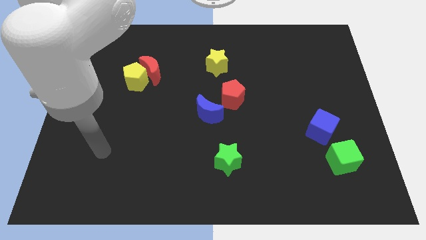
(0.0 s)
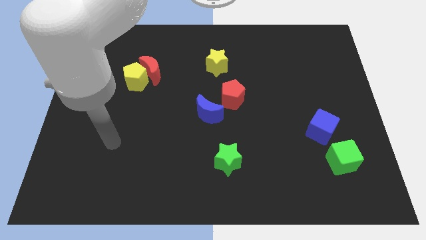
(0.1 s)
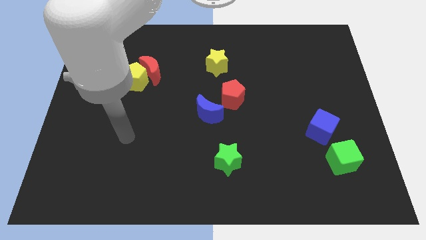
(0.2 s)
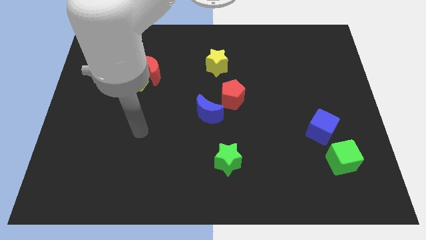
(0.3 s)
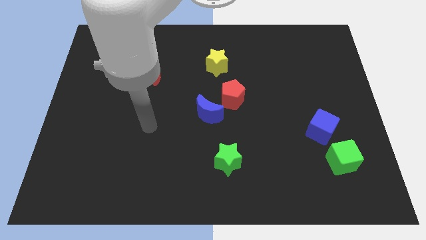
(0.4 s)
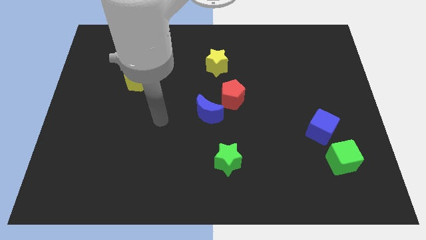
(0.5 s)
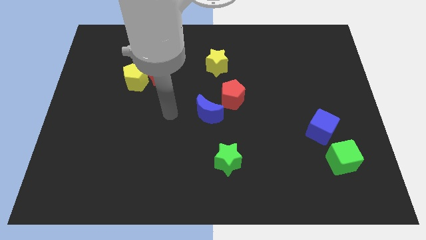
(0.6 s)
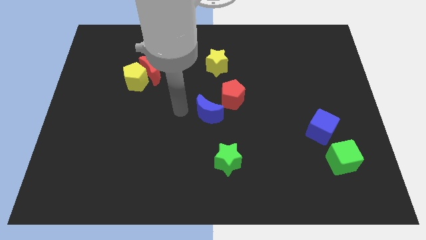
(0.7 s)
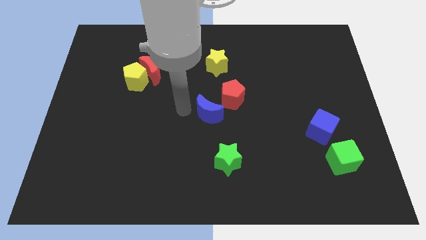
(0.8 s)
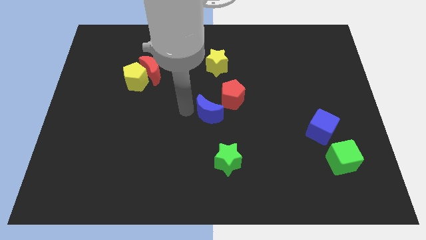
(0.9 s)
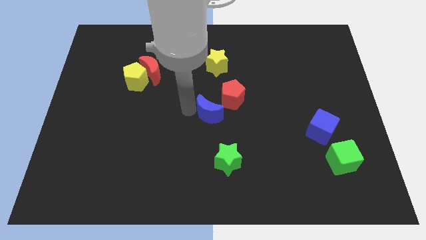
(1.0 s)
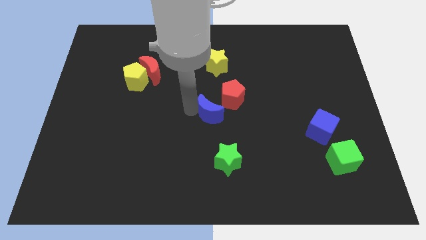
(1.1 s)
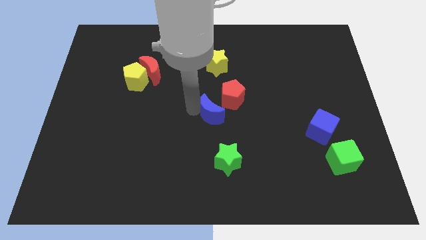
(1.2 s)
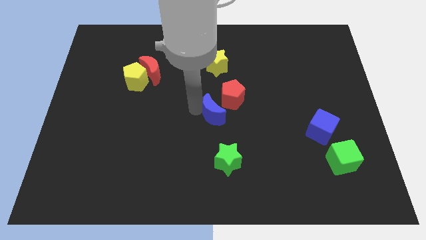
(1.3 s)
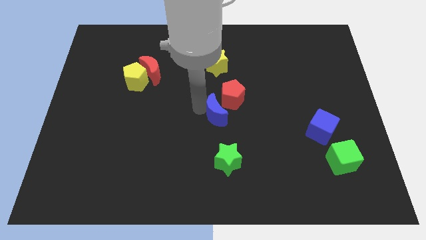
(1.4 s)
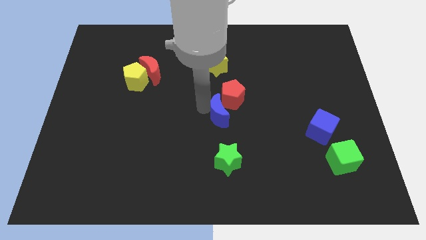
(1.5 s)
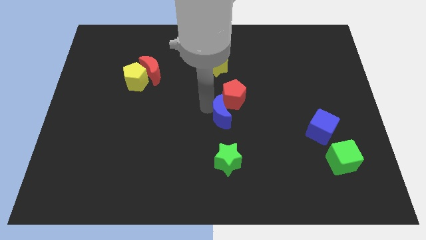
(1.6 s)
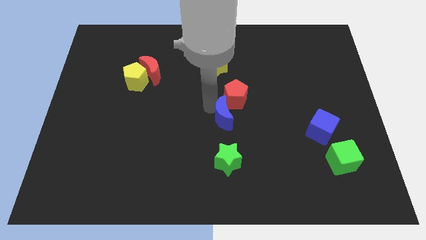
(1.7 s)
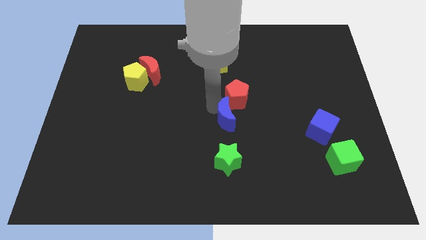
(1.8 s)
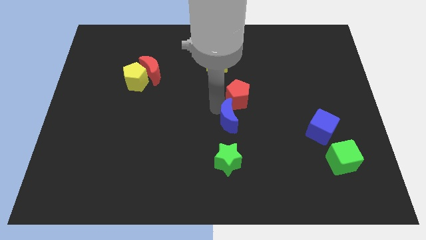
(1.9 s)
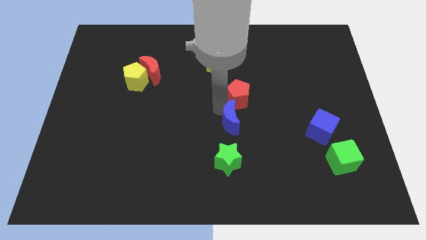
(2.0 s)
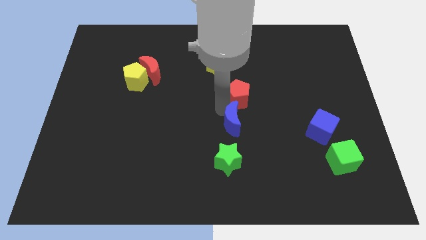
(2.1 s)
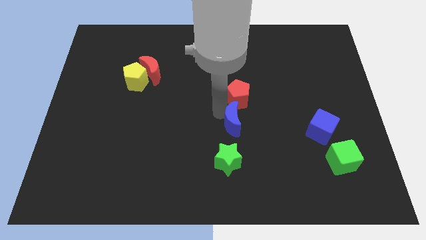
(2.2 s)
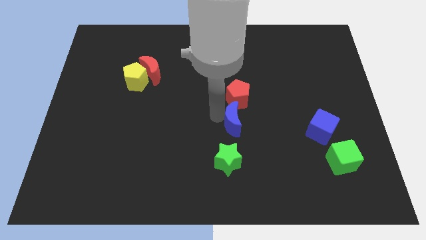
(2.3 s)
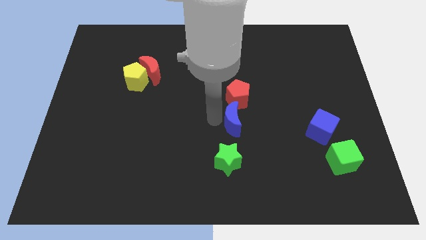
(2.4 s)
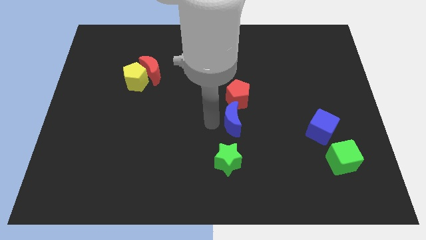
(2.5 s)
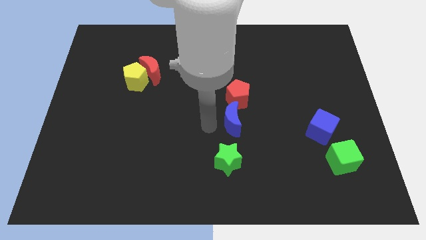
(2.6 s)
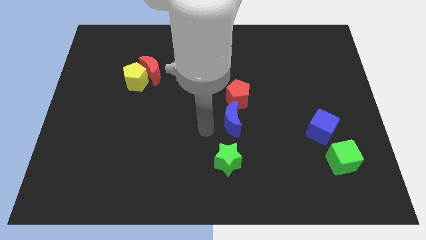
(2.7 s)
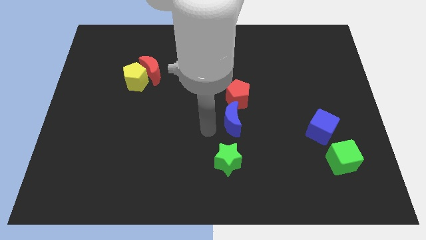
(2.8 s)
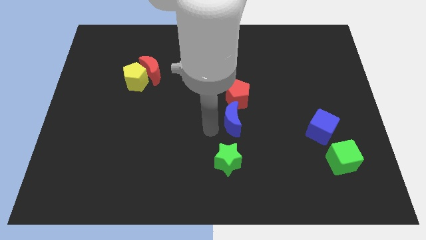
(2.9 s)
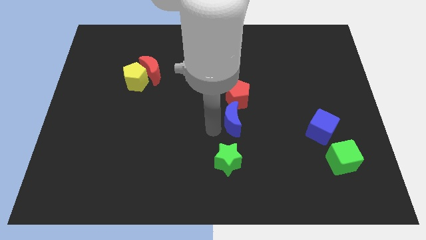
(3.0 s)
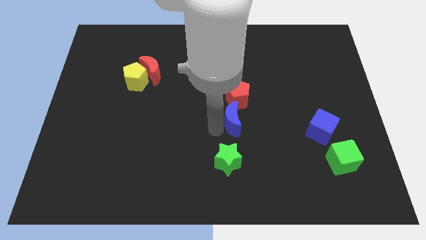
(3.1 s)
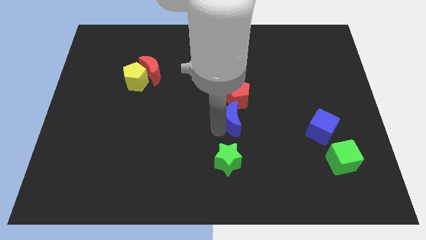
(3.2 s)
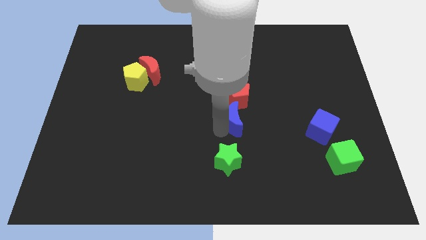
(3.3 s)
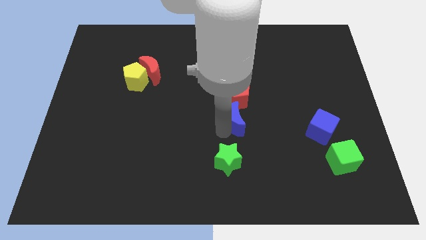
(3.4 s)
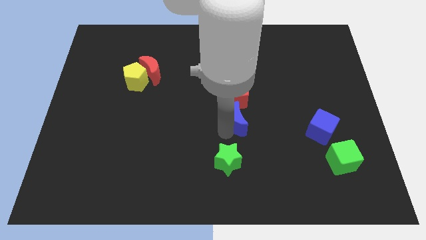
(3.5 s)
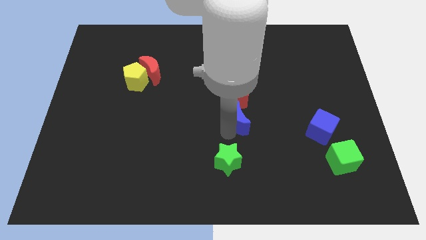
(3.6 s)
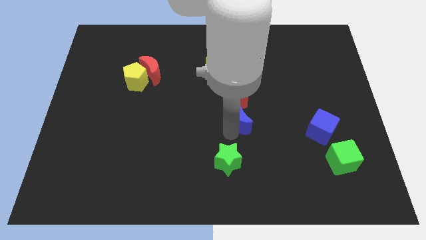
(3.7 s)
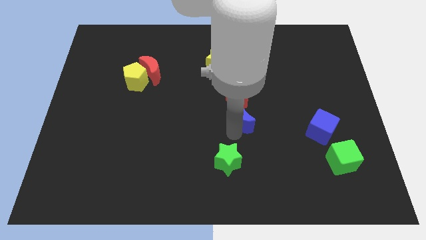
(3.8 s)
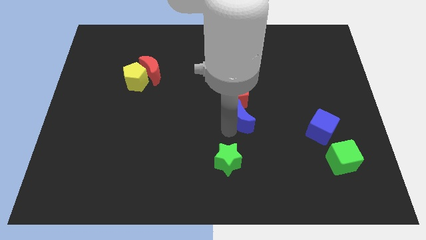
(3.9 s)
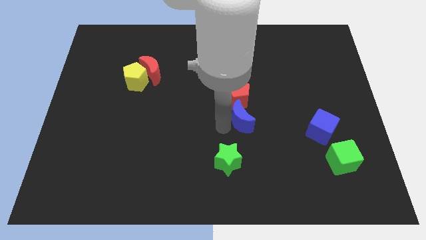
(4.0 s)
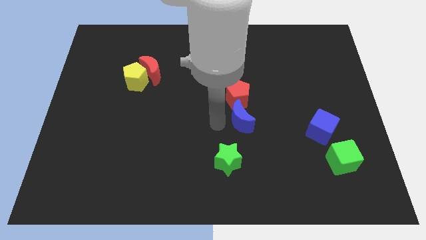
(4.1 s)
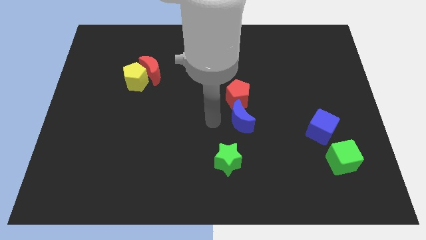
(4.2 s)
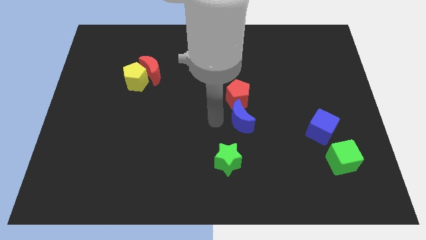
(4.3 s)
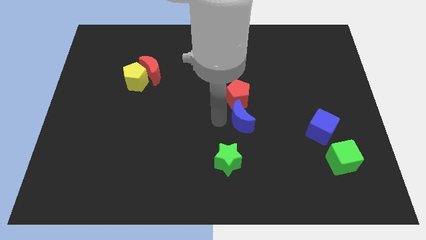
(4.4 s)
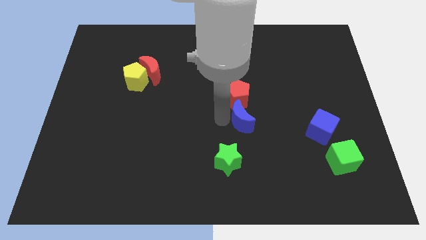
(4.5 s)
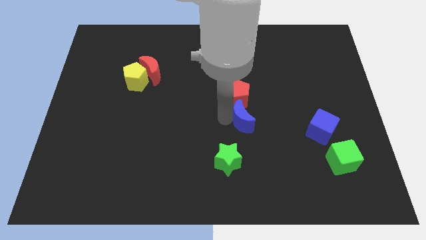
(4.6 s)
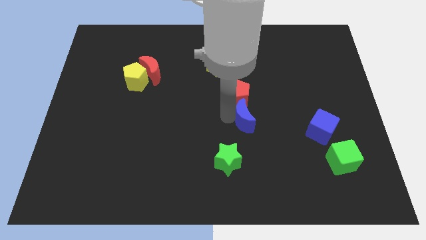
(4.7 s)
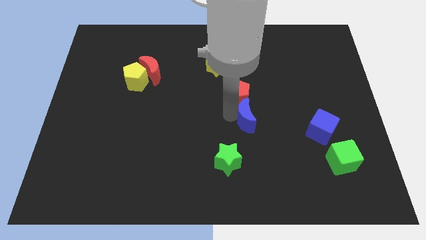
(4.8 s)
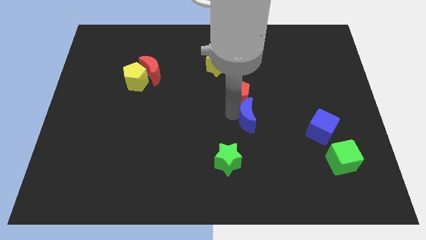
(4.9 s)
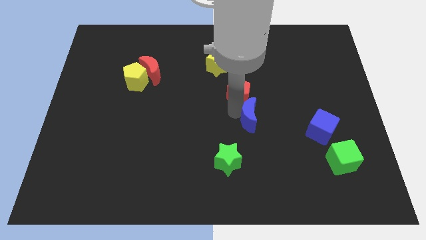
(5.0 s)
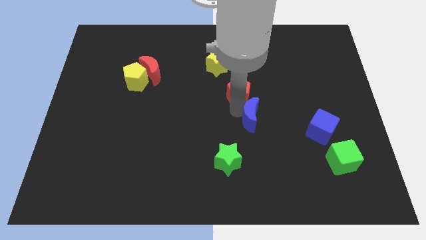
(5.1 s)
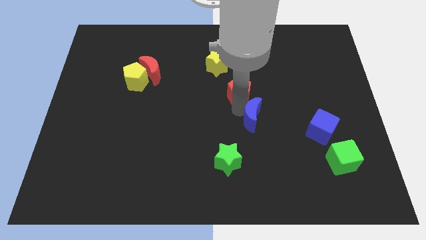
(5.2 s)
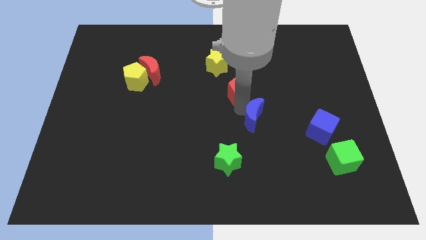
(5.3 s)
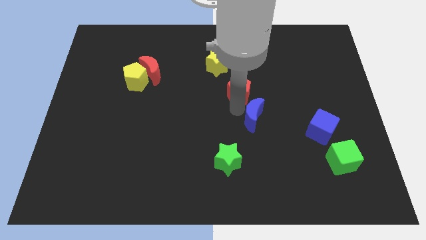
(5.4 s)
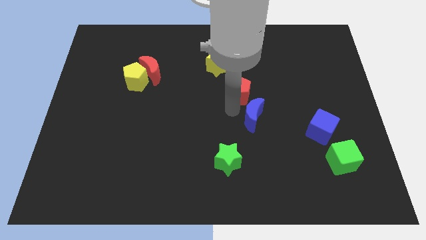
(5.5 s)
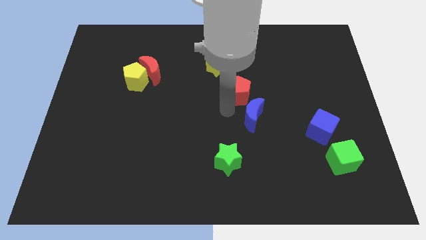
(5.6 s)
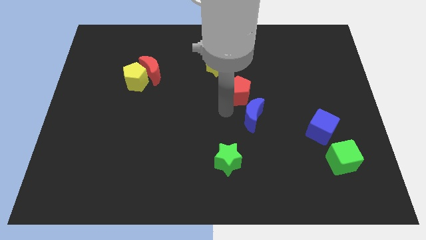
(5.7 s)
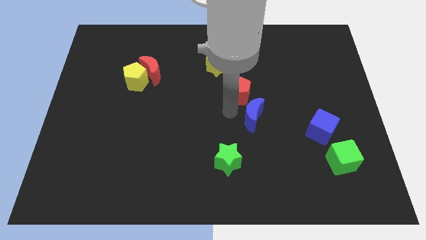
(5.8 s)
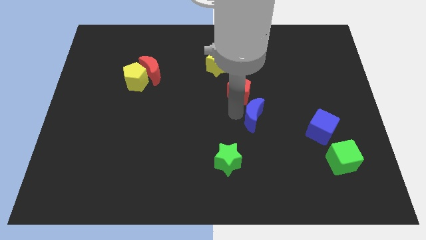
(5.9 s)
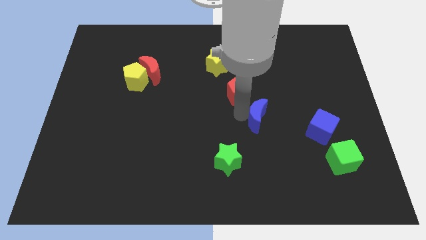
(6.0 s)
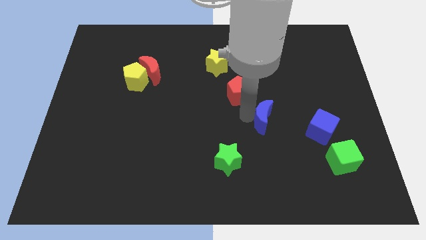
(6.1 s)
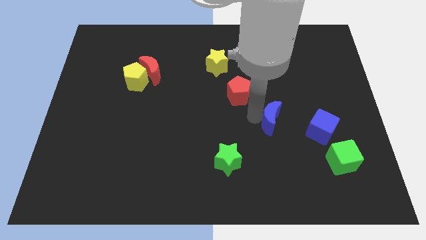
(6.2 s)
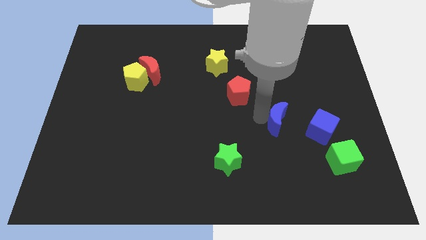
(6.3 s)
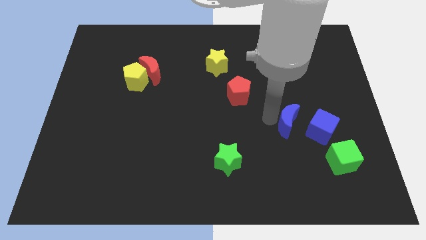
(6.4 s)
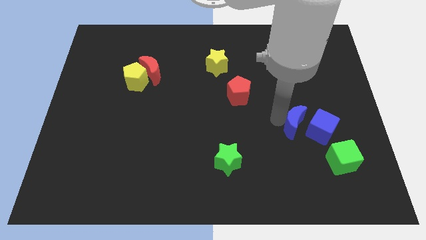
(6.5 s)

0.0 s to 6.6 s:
push the blue moon diagonally up and to the left of the green cube

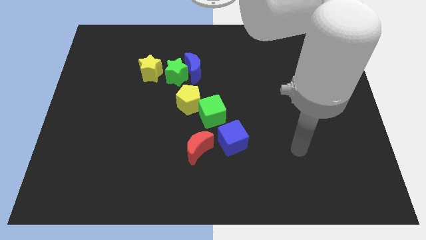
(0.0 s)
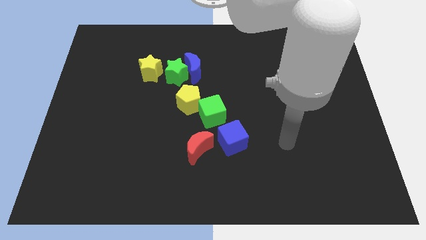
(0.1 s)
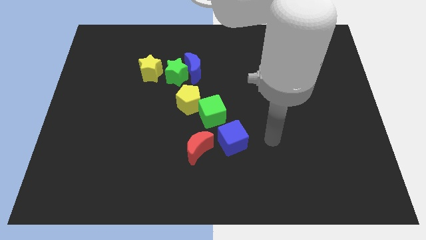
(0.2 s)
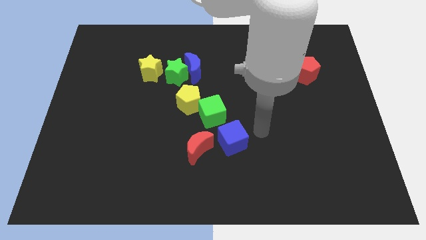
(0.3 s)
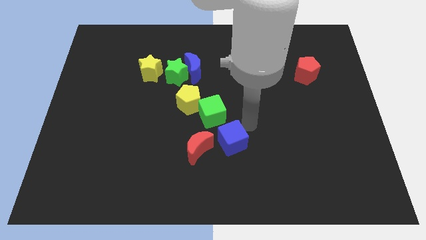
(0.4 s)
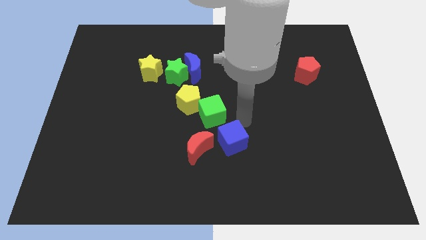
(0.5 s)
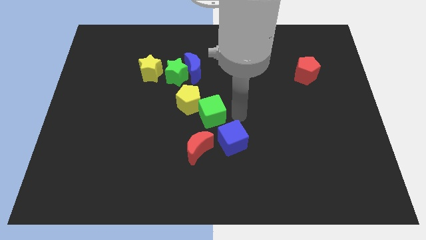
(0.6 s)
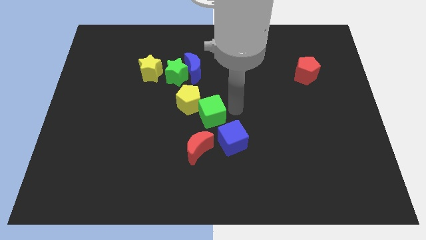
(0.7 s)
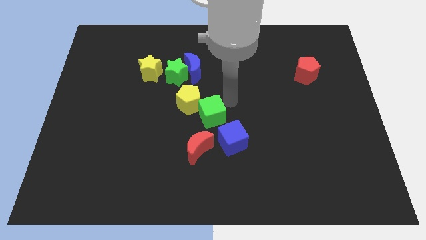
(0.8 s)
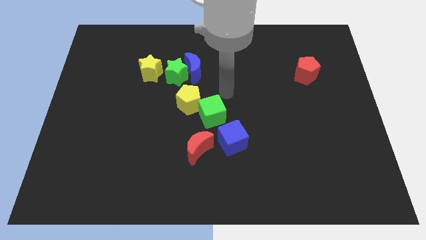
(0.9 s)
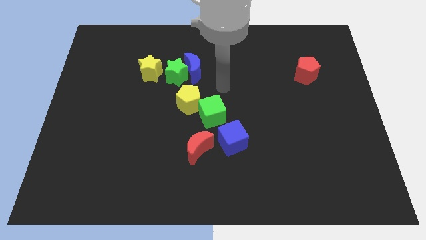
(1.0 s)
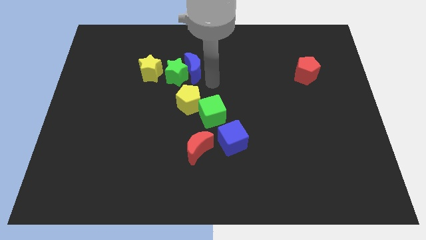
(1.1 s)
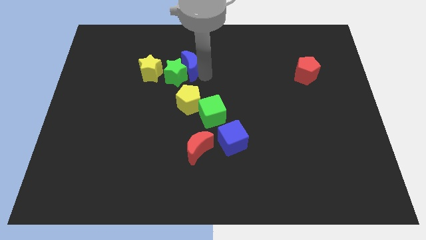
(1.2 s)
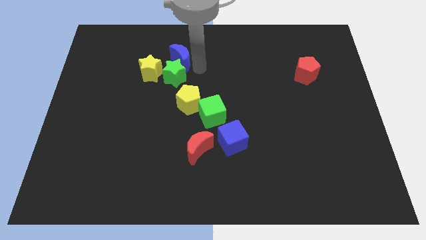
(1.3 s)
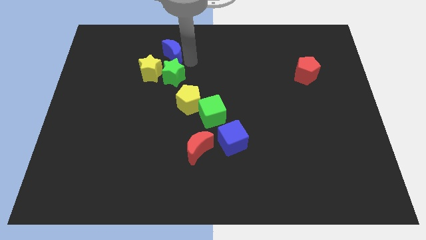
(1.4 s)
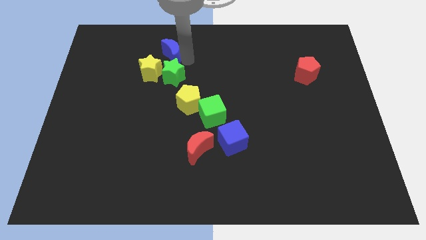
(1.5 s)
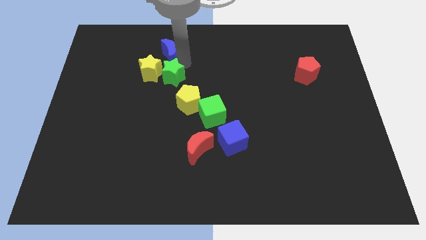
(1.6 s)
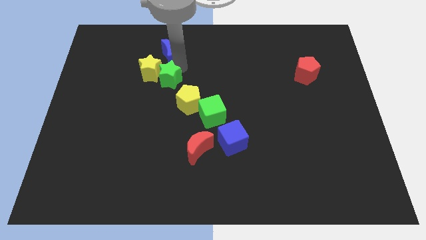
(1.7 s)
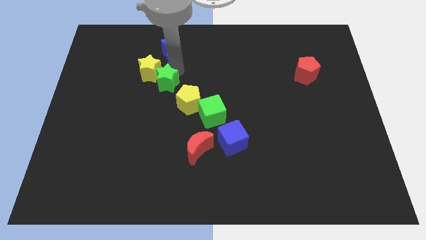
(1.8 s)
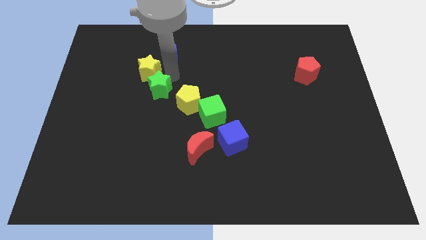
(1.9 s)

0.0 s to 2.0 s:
move the green star left of the yellow pentagon
